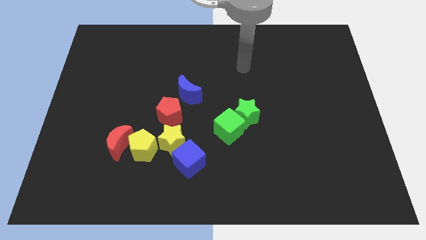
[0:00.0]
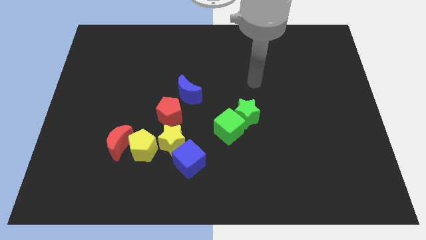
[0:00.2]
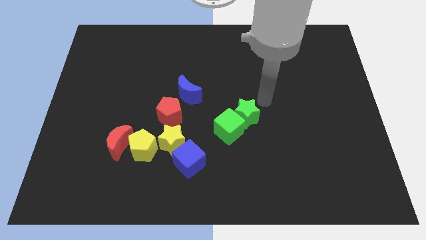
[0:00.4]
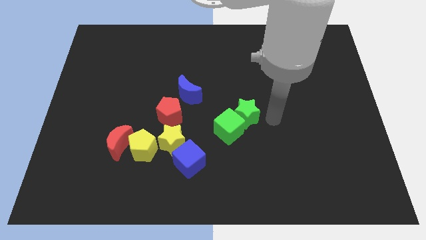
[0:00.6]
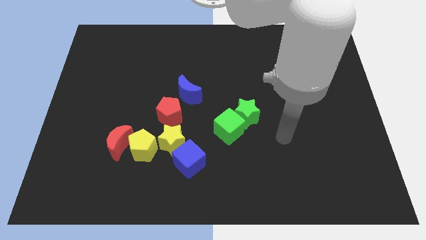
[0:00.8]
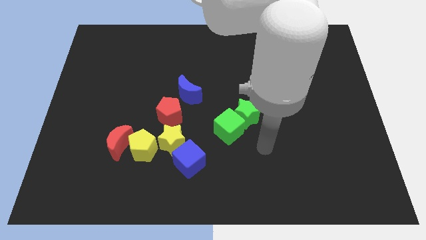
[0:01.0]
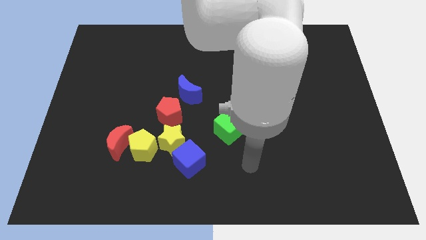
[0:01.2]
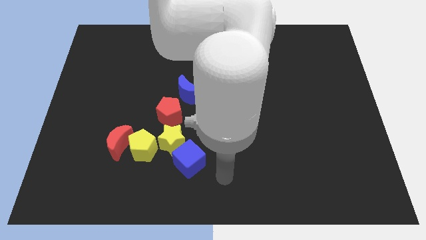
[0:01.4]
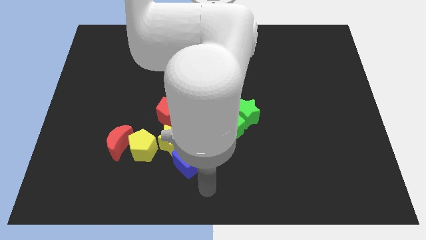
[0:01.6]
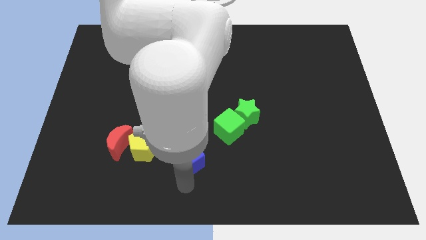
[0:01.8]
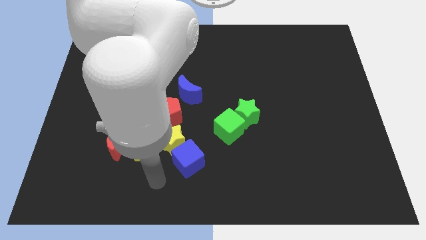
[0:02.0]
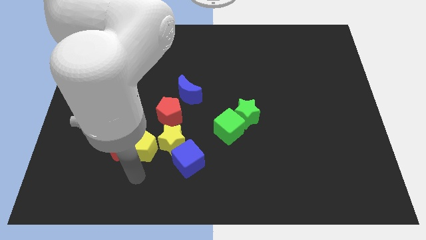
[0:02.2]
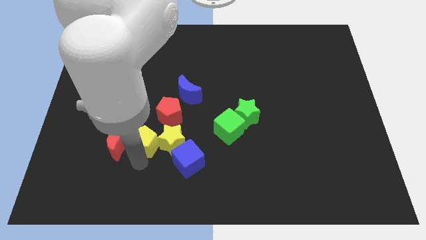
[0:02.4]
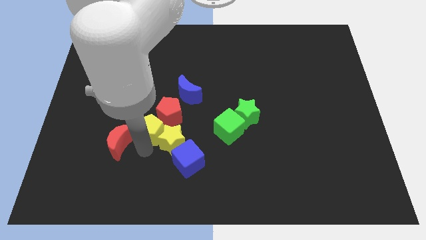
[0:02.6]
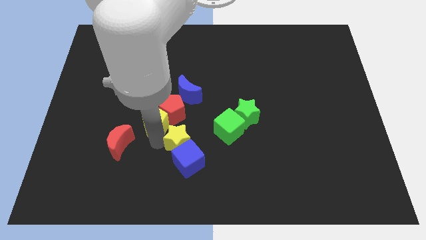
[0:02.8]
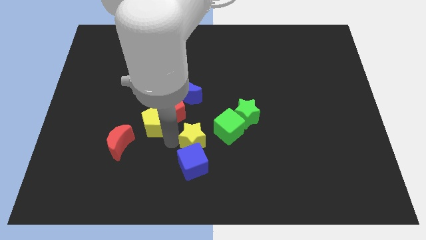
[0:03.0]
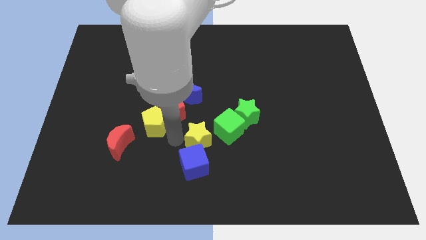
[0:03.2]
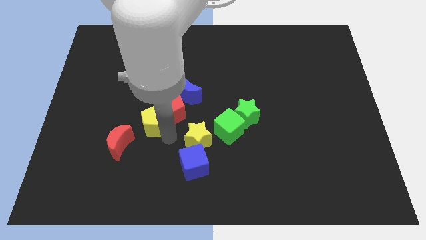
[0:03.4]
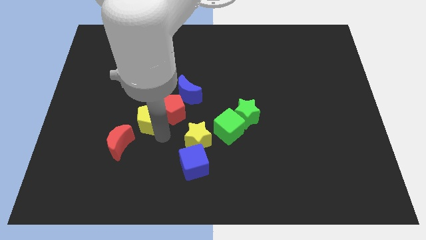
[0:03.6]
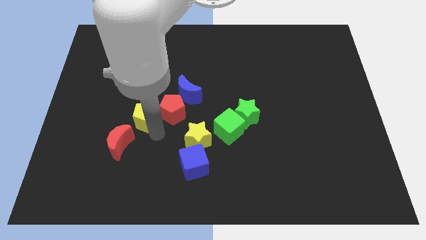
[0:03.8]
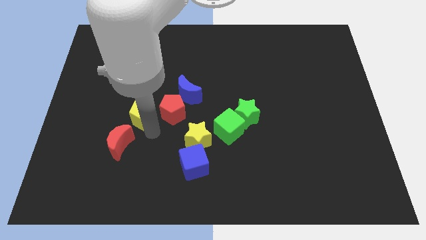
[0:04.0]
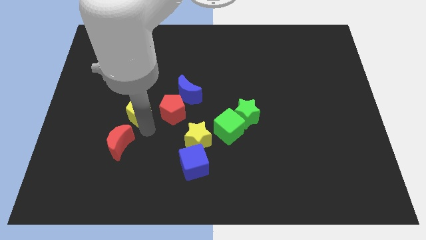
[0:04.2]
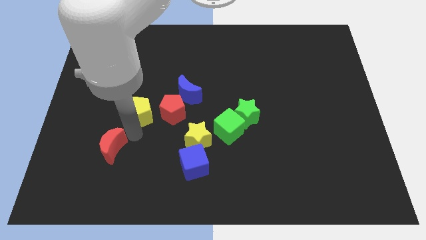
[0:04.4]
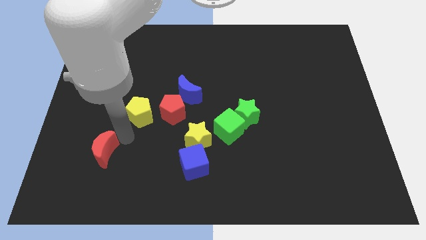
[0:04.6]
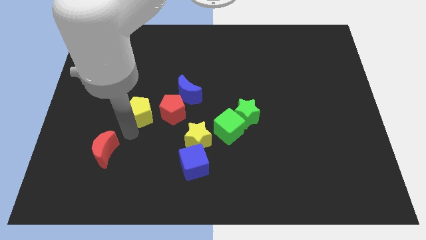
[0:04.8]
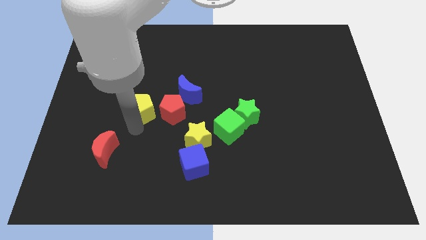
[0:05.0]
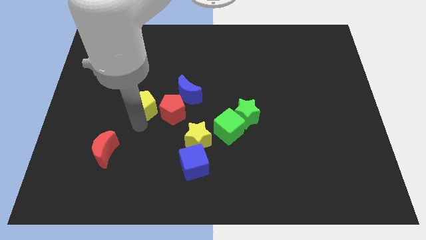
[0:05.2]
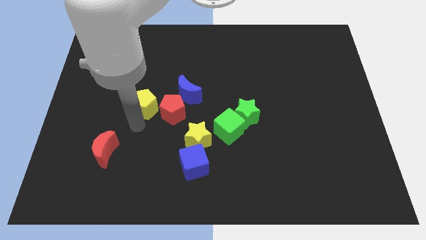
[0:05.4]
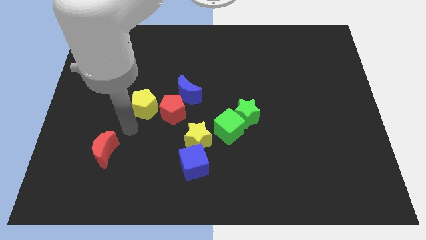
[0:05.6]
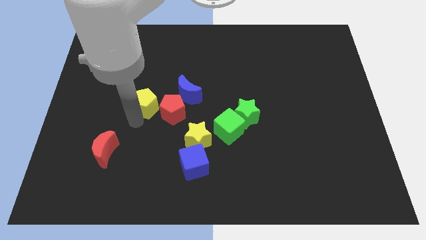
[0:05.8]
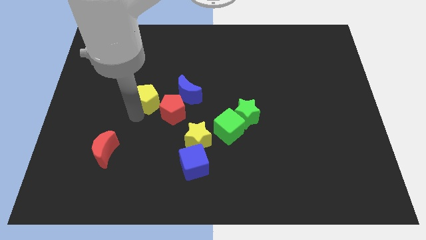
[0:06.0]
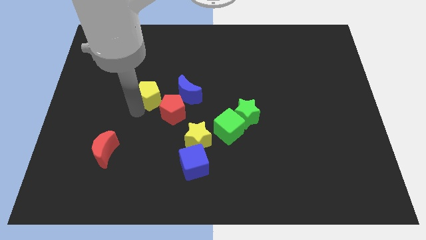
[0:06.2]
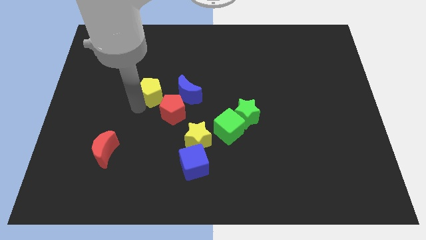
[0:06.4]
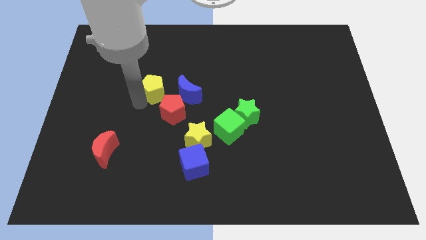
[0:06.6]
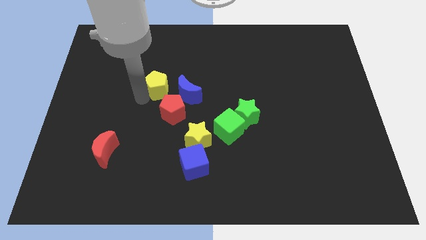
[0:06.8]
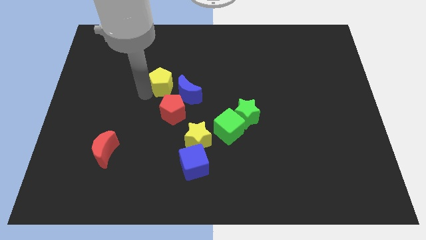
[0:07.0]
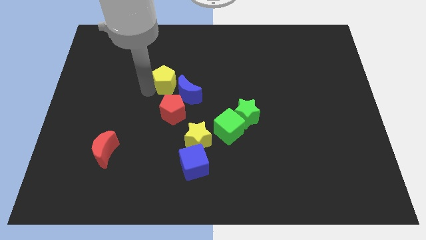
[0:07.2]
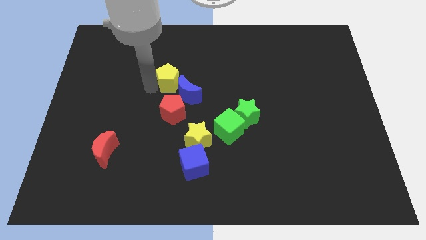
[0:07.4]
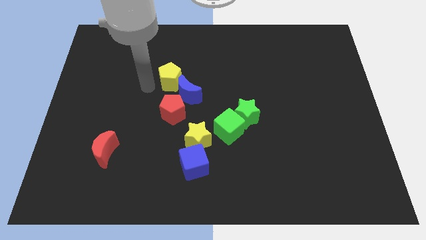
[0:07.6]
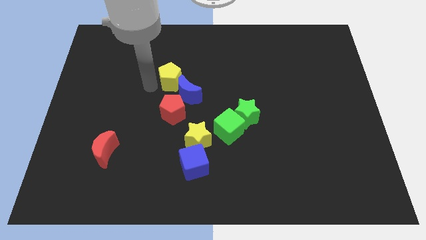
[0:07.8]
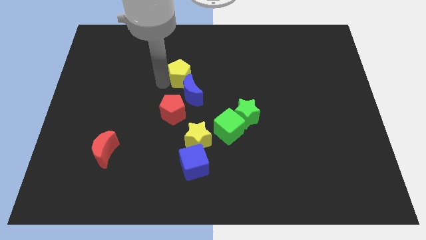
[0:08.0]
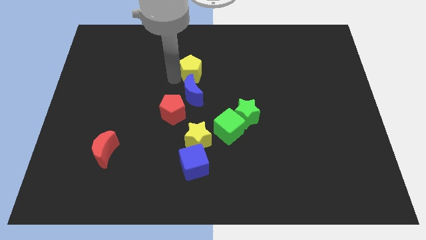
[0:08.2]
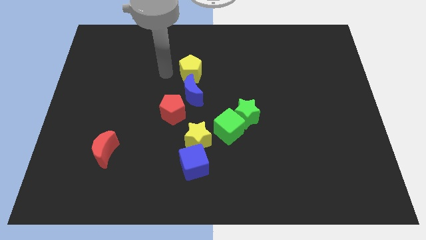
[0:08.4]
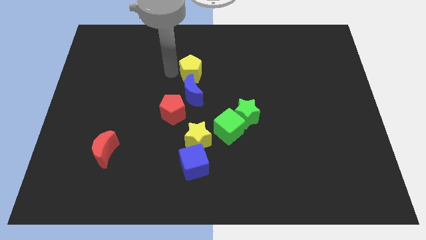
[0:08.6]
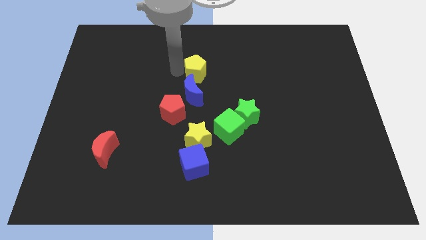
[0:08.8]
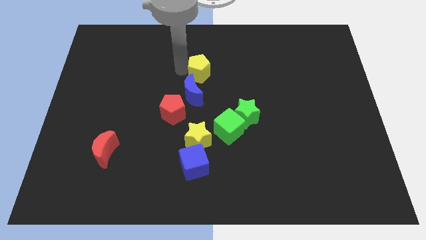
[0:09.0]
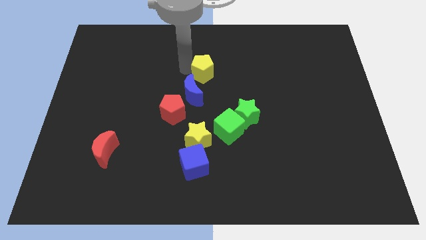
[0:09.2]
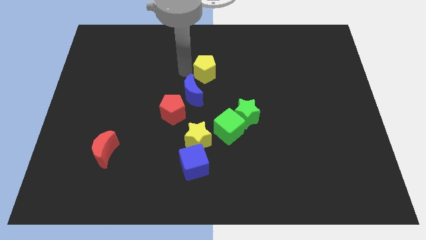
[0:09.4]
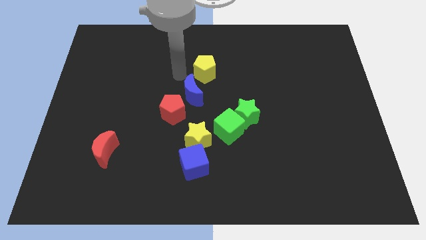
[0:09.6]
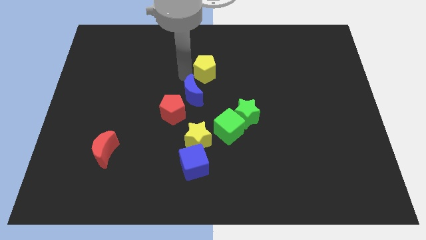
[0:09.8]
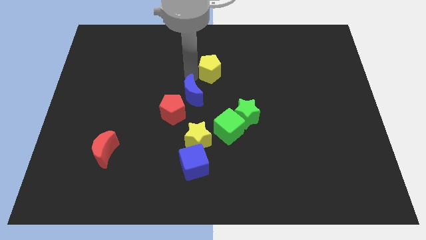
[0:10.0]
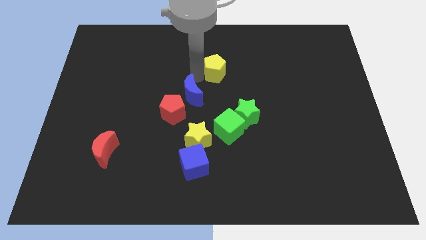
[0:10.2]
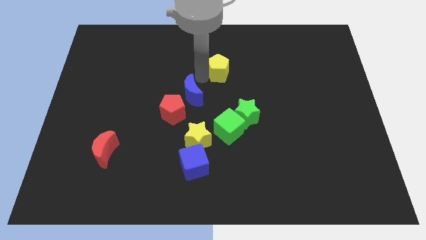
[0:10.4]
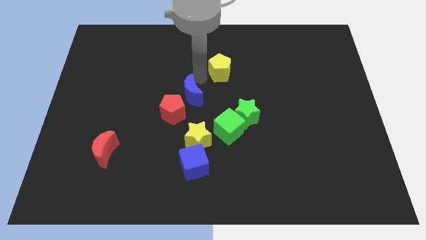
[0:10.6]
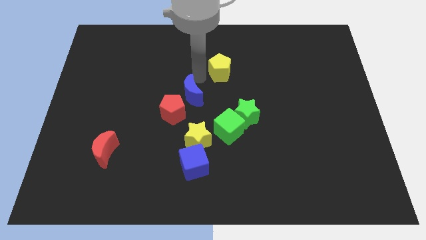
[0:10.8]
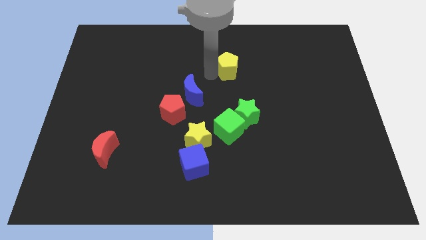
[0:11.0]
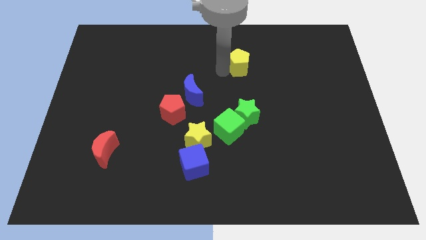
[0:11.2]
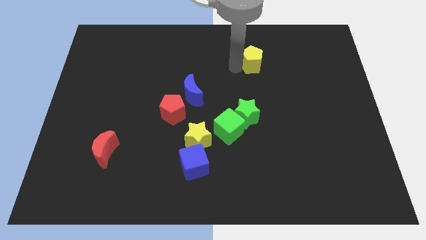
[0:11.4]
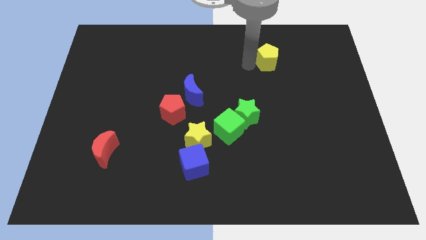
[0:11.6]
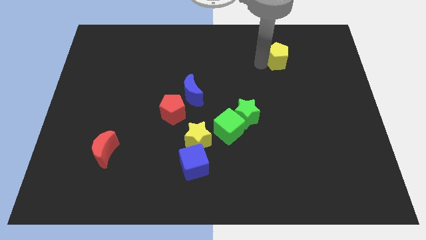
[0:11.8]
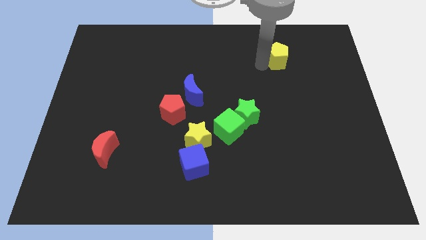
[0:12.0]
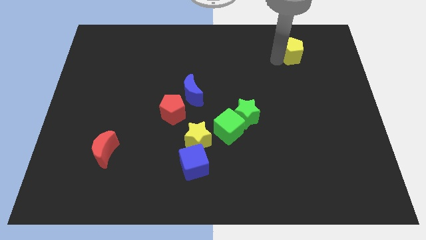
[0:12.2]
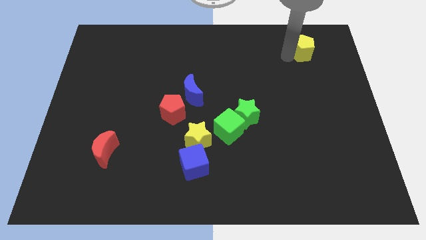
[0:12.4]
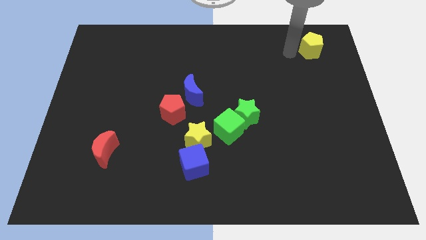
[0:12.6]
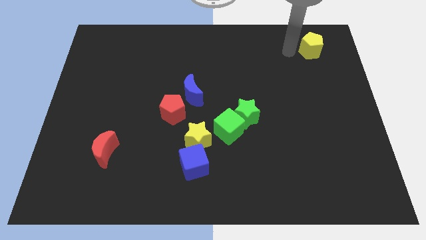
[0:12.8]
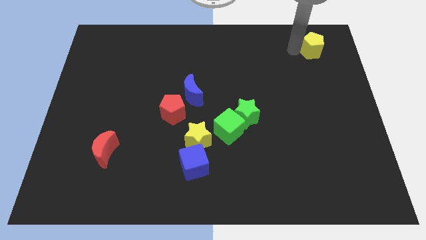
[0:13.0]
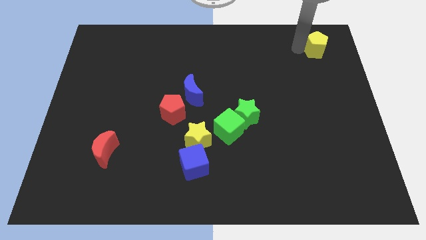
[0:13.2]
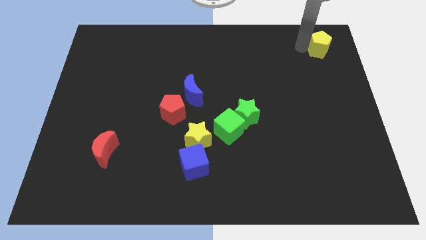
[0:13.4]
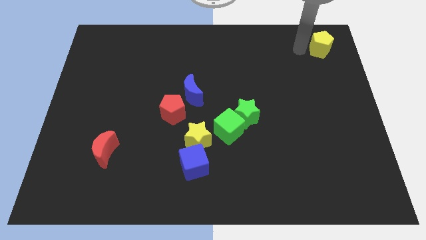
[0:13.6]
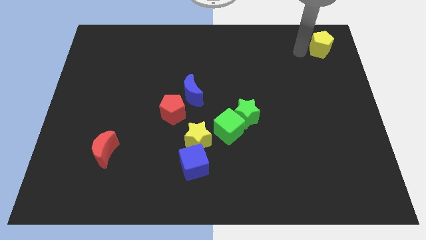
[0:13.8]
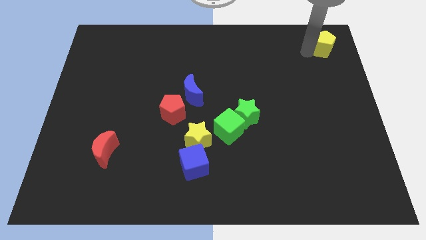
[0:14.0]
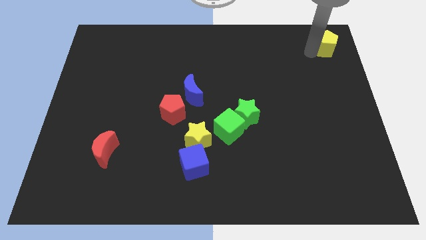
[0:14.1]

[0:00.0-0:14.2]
put the yellow pentagon to the top right
